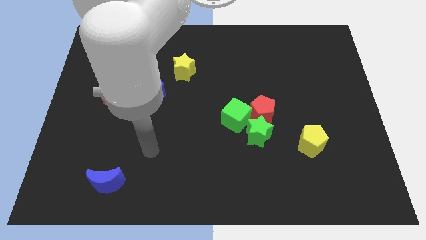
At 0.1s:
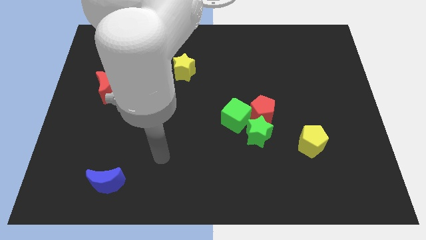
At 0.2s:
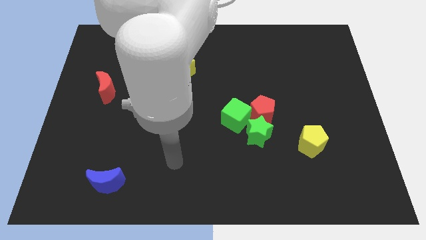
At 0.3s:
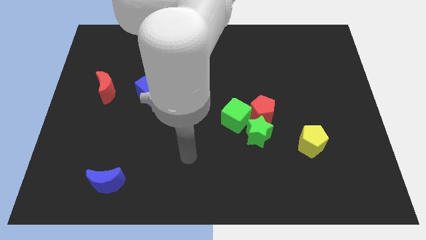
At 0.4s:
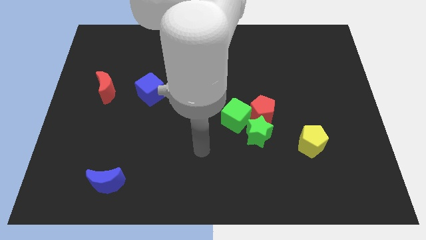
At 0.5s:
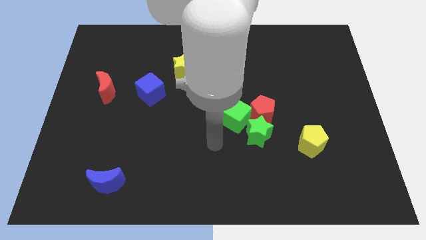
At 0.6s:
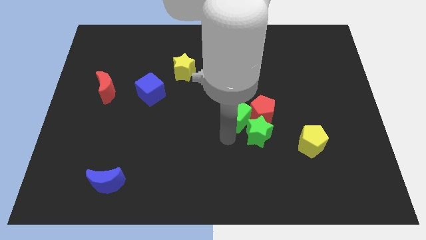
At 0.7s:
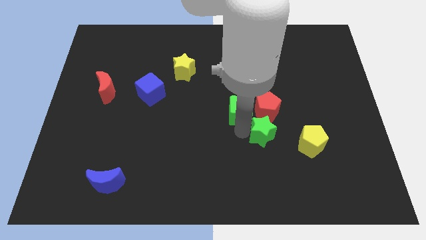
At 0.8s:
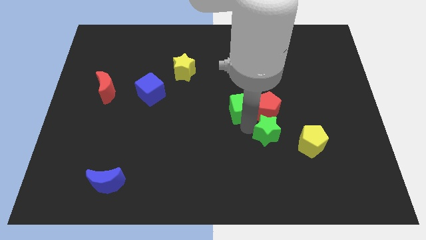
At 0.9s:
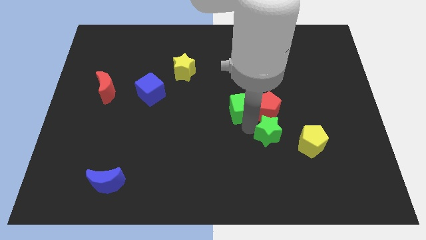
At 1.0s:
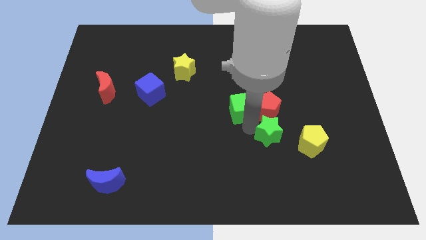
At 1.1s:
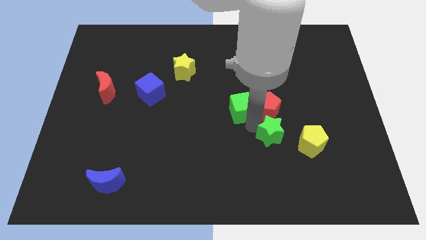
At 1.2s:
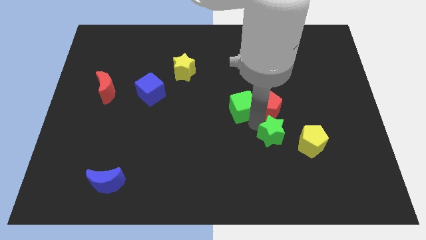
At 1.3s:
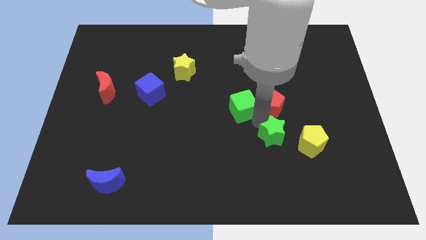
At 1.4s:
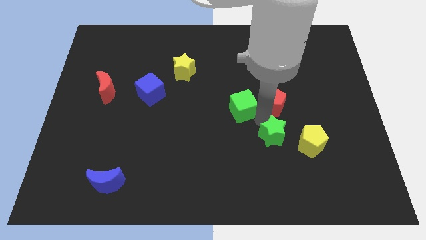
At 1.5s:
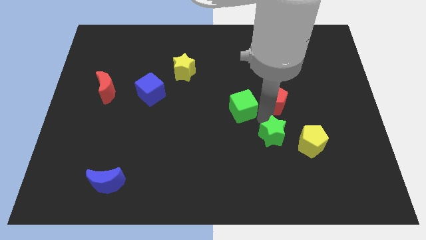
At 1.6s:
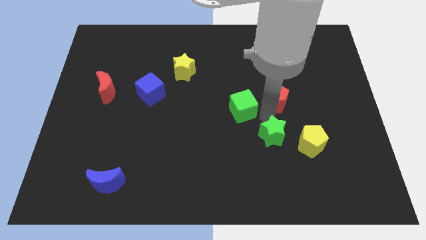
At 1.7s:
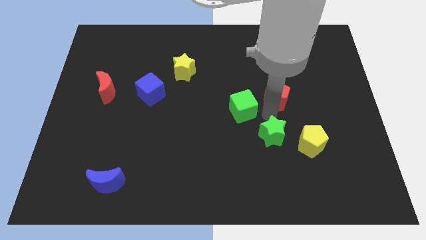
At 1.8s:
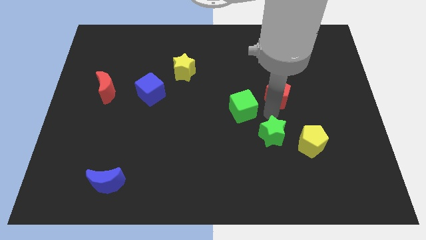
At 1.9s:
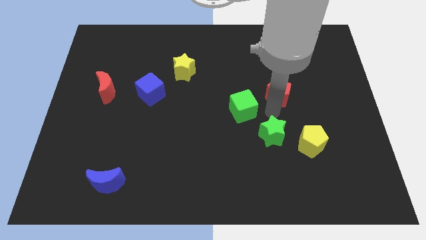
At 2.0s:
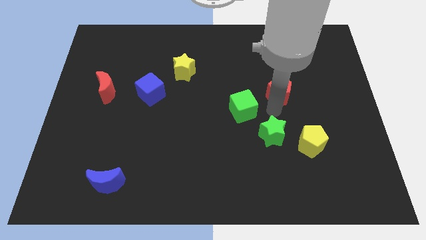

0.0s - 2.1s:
pull the red pentagon apart from the green cube and green star

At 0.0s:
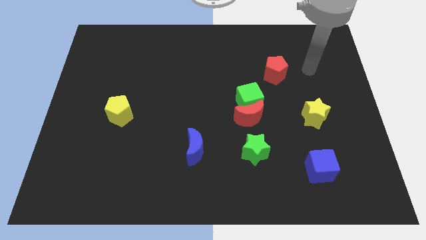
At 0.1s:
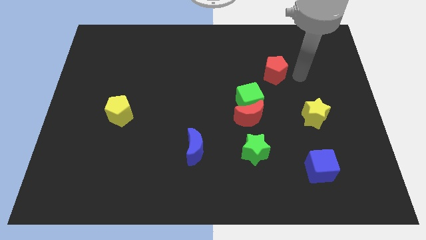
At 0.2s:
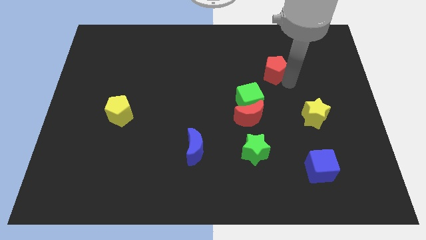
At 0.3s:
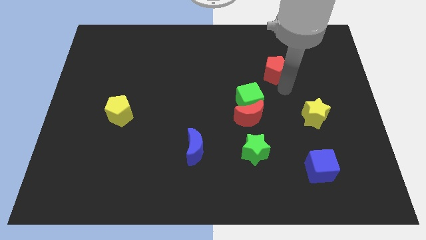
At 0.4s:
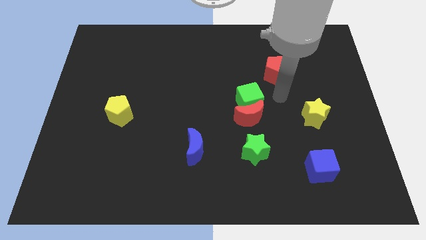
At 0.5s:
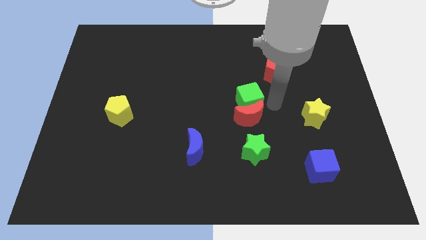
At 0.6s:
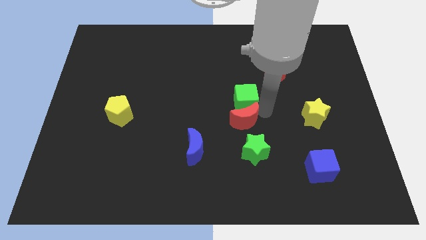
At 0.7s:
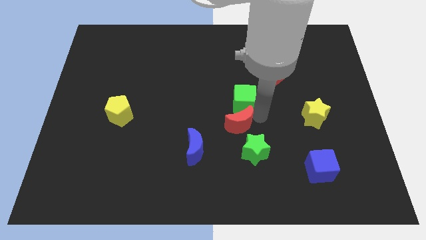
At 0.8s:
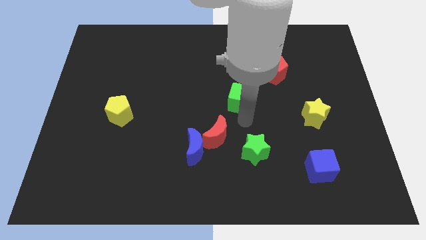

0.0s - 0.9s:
move the green cube away from the red moon

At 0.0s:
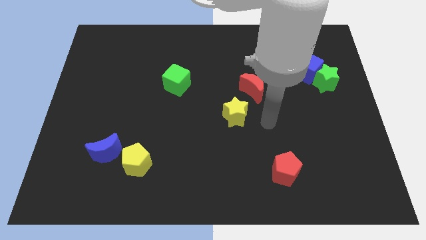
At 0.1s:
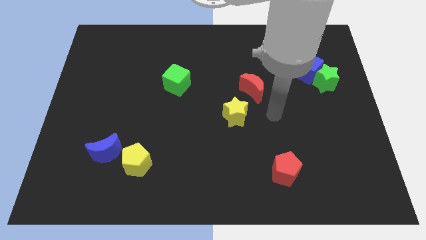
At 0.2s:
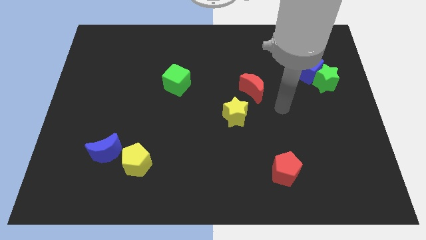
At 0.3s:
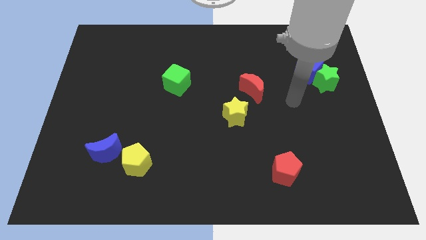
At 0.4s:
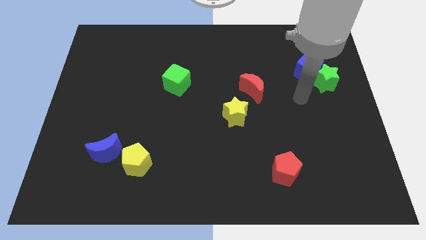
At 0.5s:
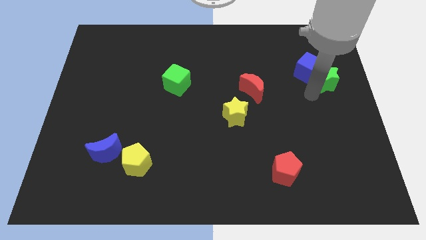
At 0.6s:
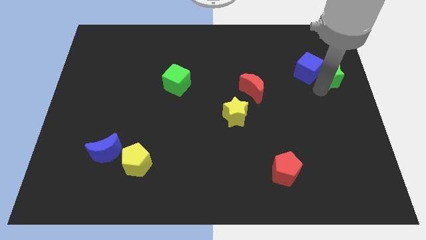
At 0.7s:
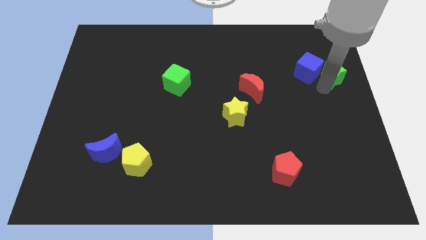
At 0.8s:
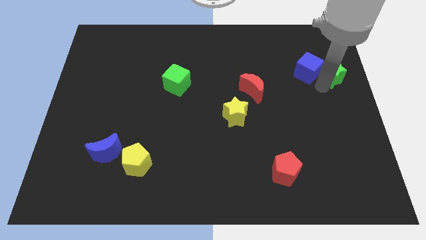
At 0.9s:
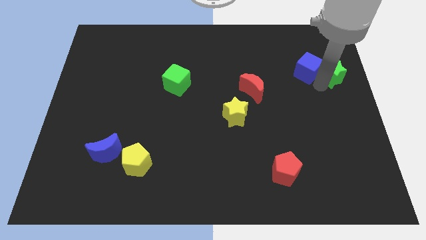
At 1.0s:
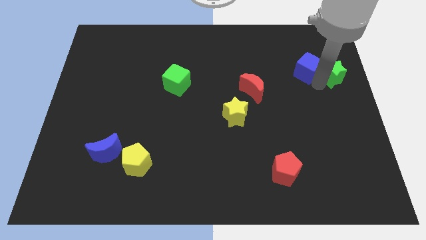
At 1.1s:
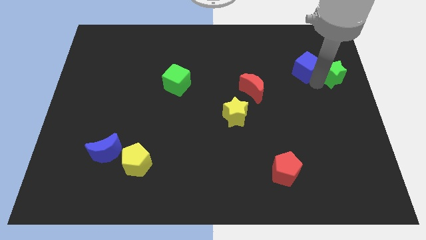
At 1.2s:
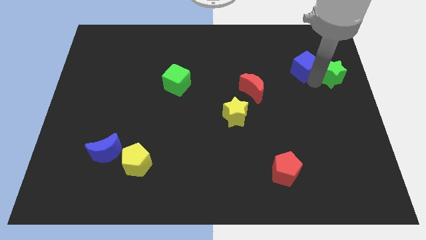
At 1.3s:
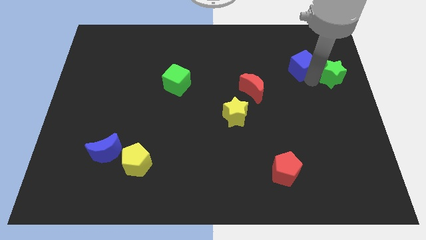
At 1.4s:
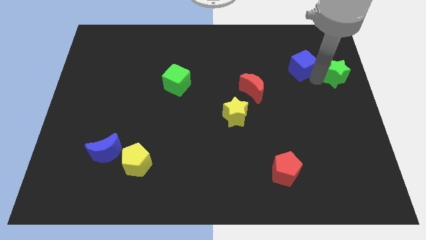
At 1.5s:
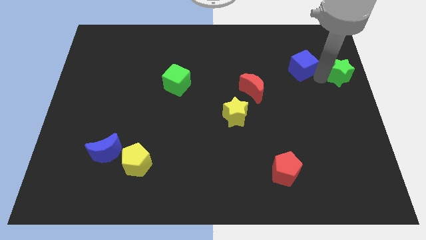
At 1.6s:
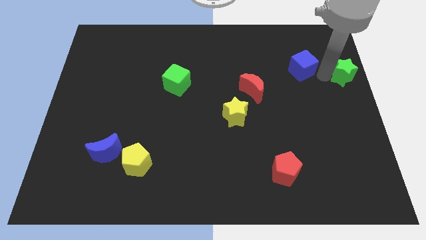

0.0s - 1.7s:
separate the blue cube from the green star

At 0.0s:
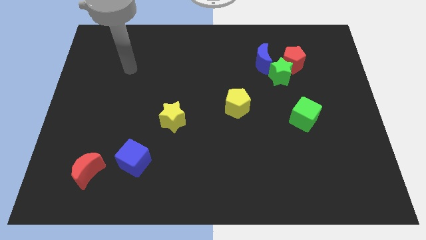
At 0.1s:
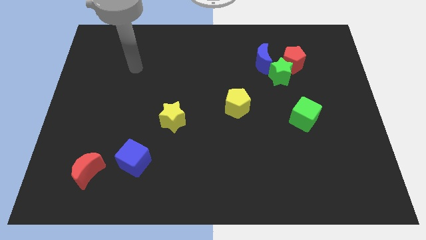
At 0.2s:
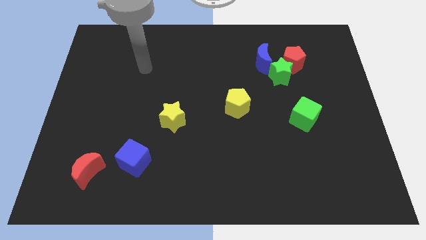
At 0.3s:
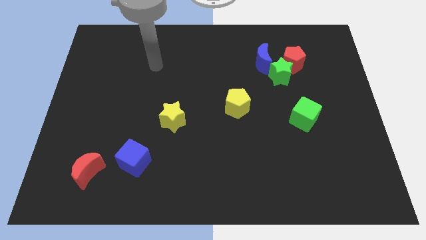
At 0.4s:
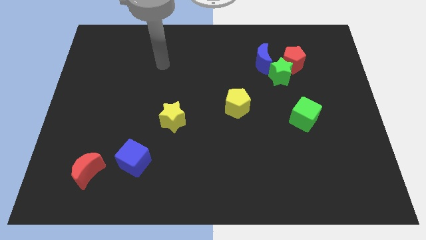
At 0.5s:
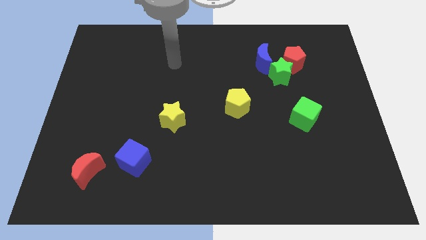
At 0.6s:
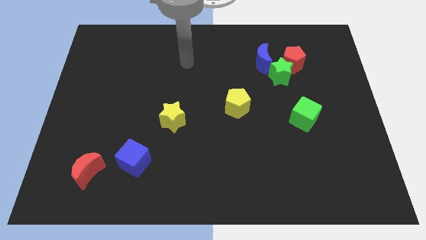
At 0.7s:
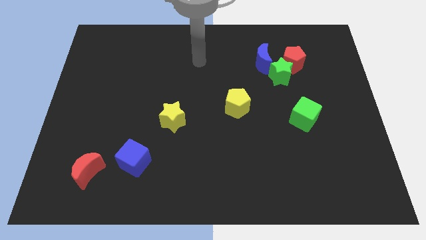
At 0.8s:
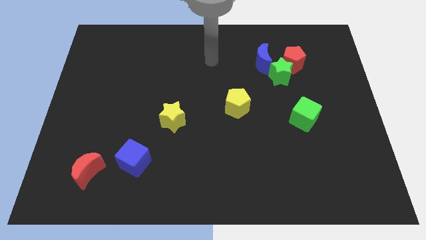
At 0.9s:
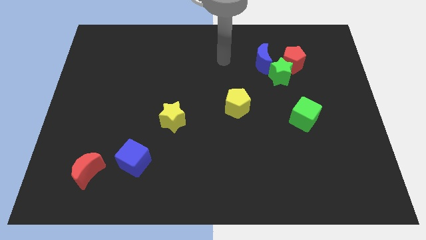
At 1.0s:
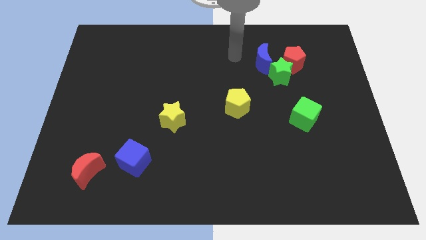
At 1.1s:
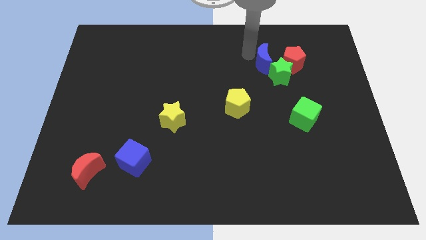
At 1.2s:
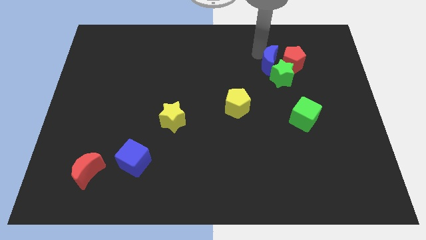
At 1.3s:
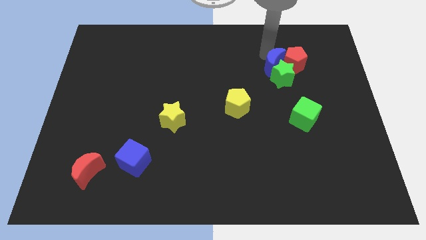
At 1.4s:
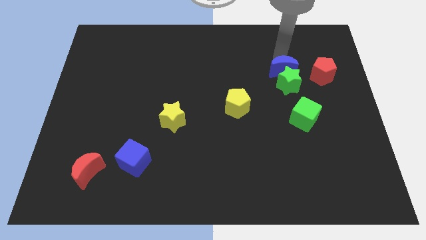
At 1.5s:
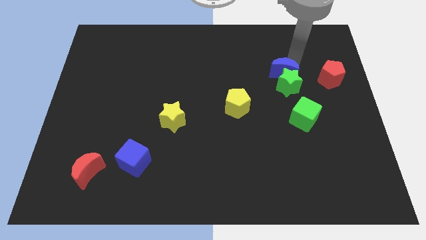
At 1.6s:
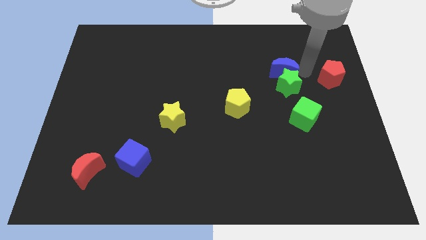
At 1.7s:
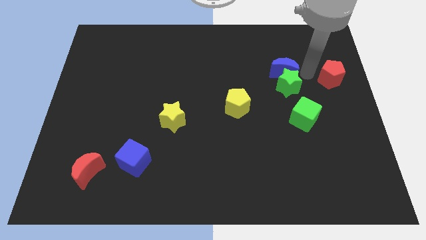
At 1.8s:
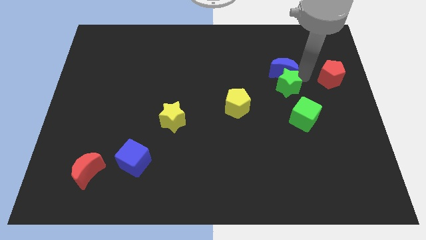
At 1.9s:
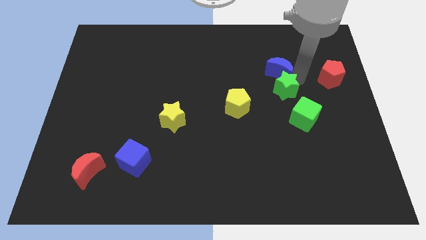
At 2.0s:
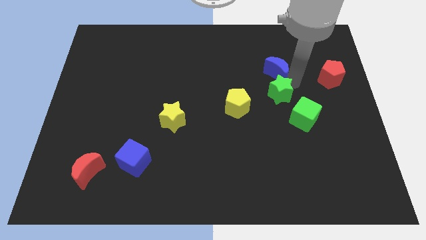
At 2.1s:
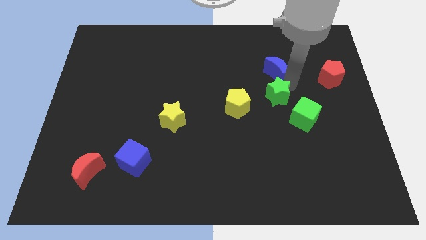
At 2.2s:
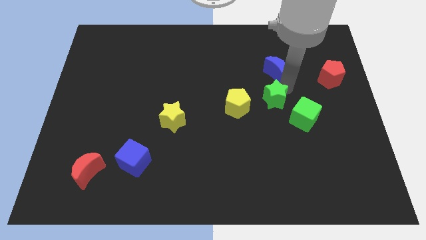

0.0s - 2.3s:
separate the green star from the red pentagon and blue moon

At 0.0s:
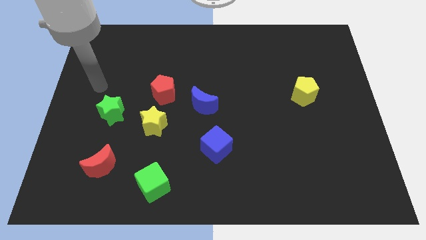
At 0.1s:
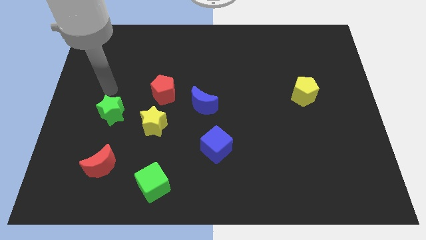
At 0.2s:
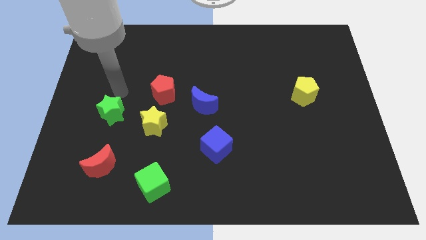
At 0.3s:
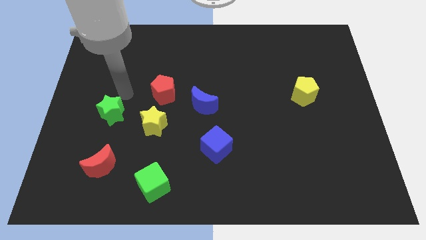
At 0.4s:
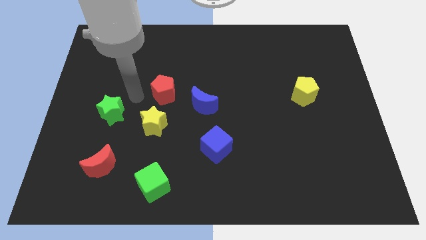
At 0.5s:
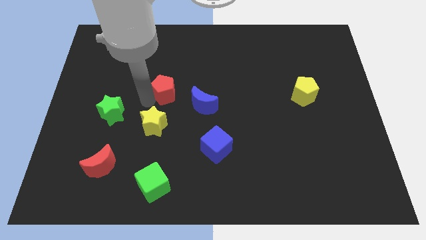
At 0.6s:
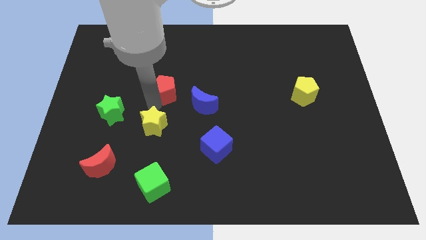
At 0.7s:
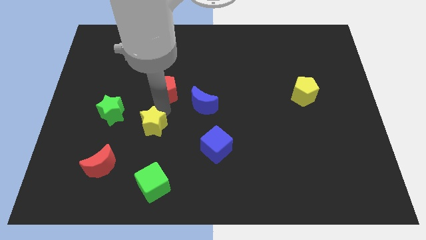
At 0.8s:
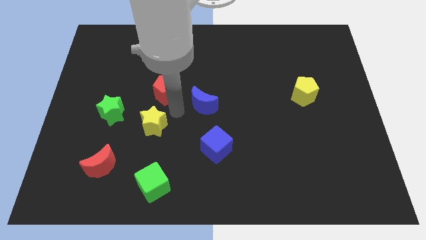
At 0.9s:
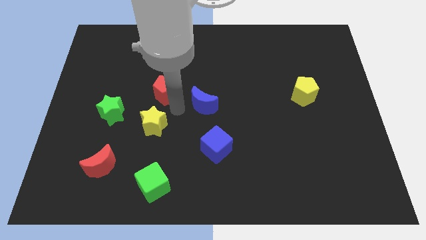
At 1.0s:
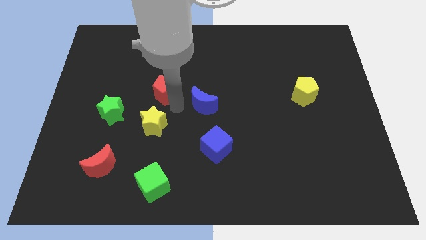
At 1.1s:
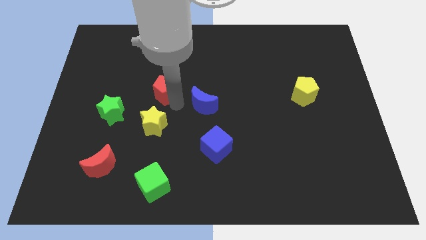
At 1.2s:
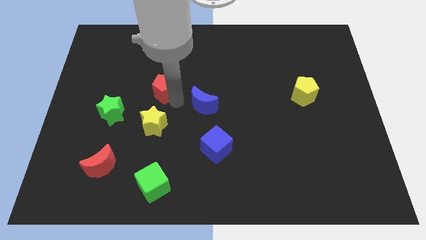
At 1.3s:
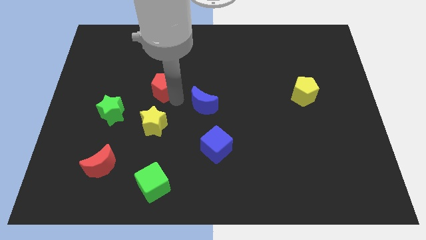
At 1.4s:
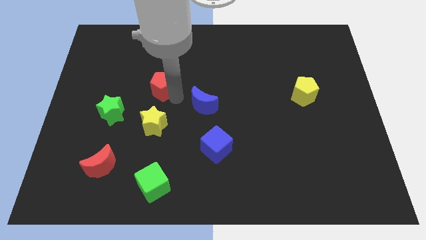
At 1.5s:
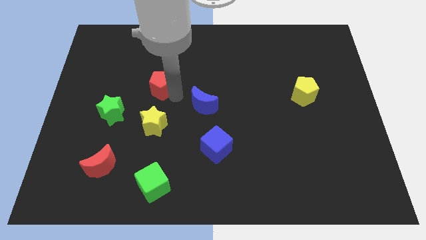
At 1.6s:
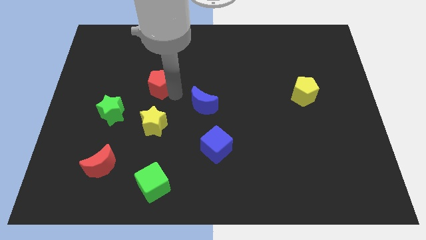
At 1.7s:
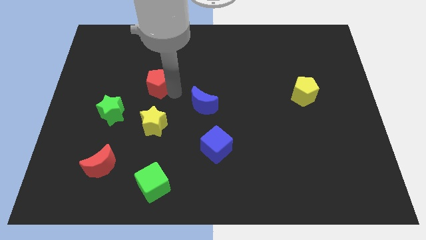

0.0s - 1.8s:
move the red pentagon away from the yellow star and blue moon

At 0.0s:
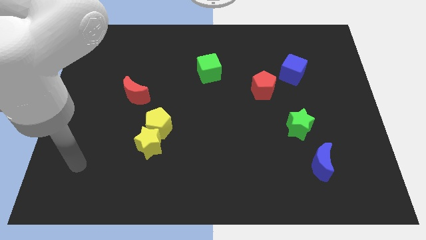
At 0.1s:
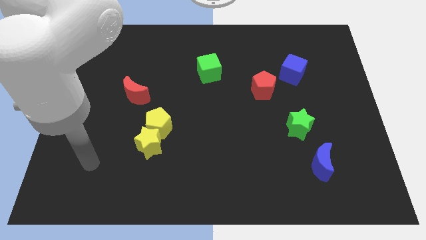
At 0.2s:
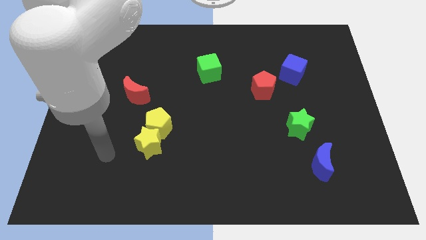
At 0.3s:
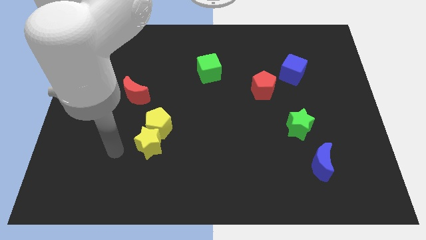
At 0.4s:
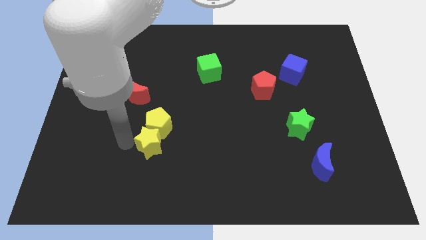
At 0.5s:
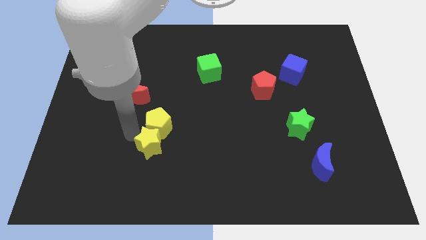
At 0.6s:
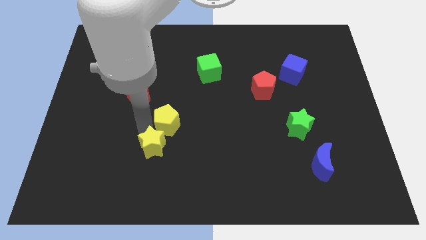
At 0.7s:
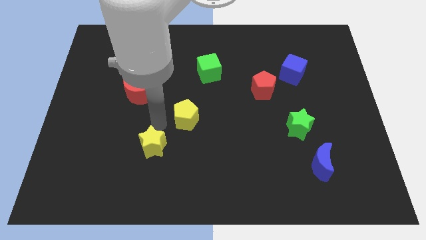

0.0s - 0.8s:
pull the yellow star apart from the yellow pentagon
